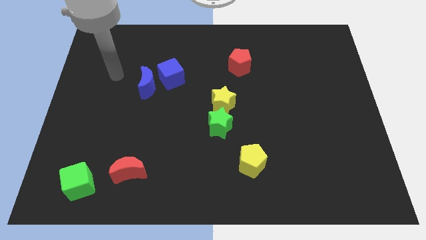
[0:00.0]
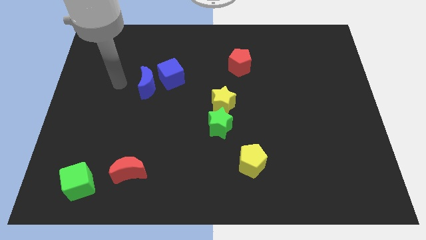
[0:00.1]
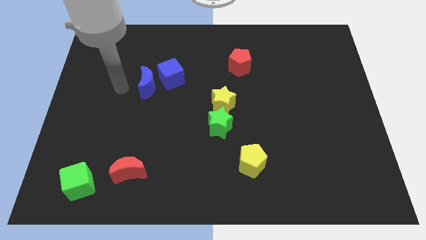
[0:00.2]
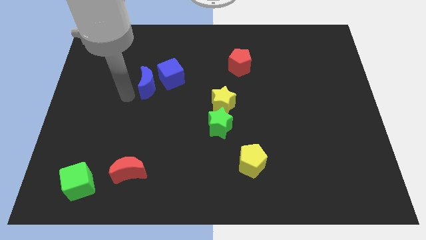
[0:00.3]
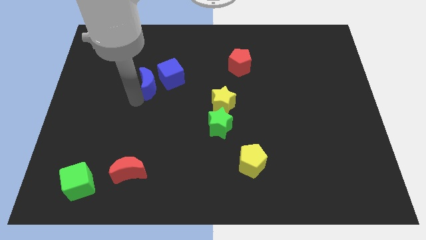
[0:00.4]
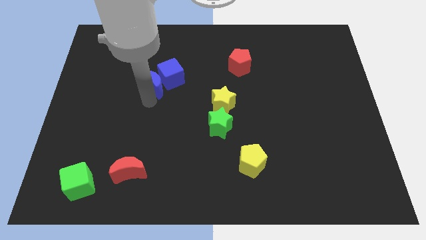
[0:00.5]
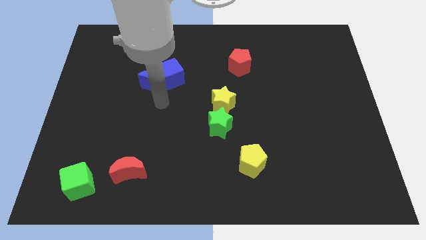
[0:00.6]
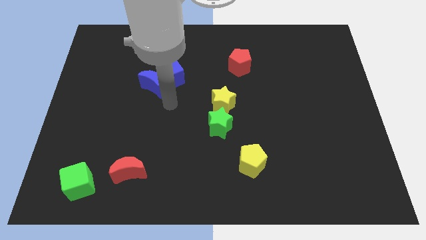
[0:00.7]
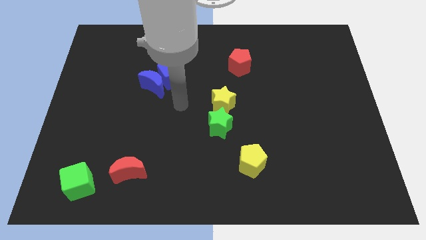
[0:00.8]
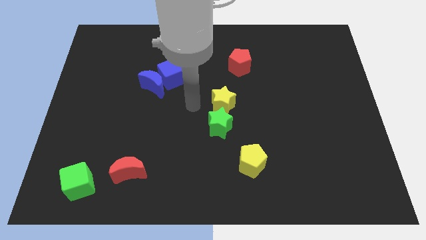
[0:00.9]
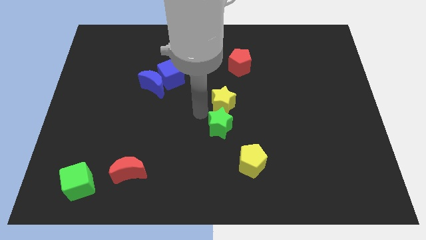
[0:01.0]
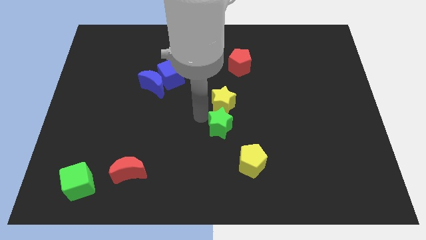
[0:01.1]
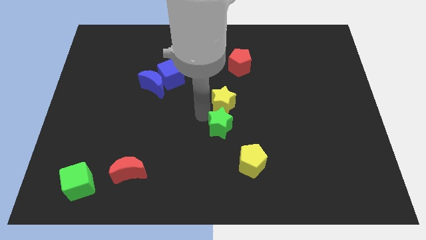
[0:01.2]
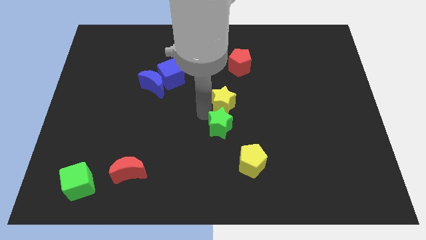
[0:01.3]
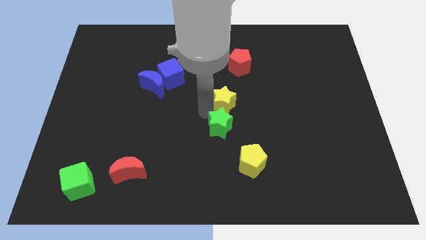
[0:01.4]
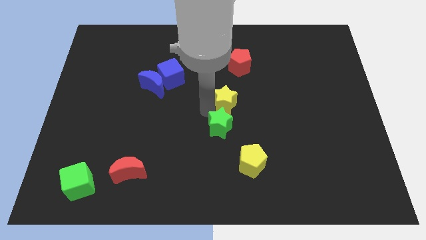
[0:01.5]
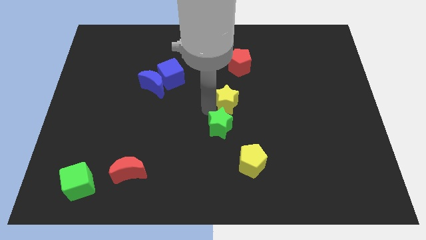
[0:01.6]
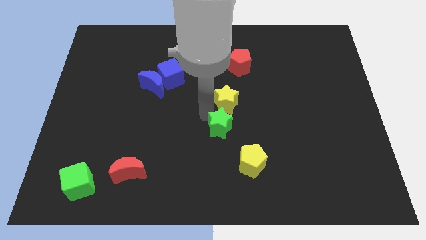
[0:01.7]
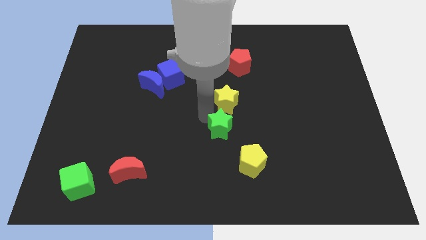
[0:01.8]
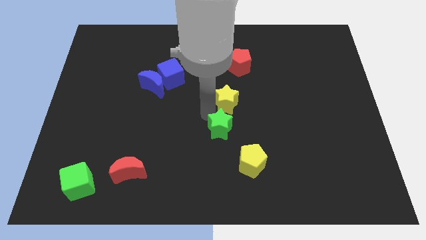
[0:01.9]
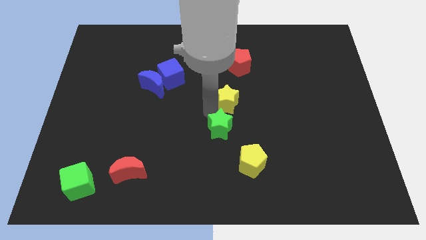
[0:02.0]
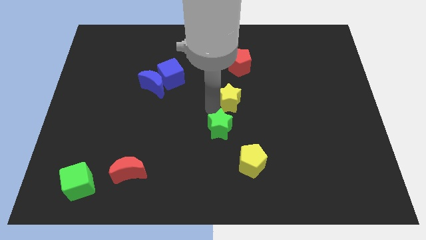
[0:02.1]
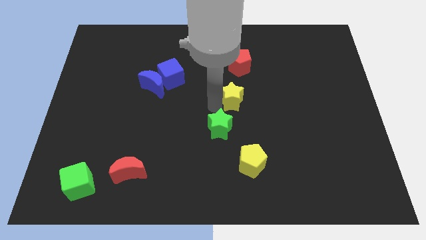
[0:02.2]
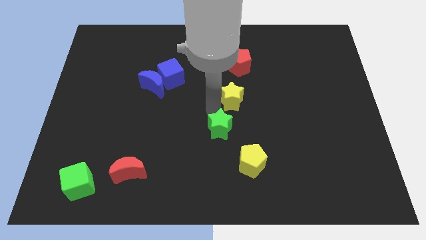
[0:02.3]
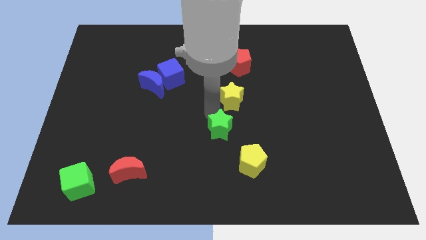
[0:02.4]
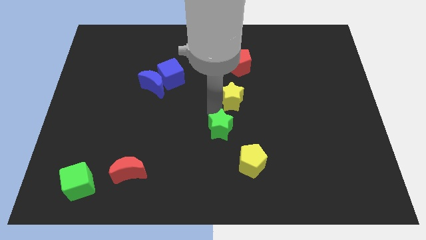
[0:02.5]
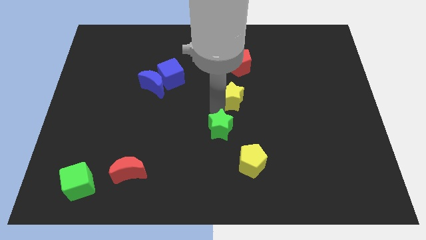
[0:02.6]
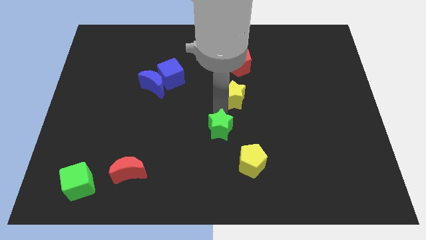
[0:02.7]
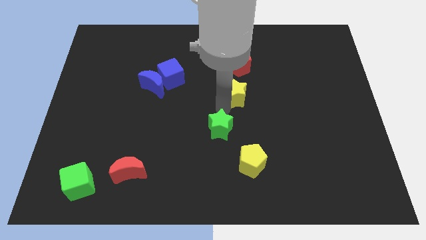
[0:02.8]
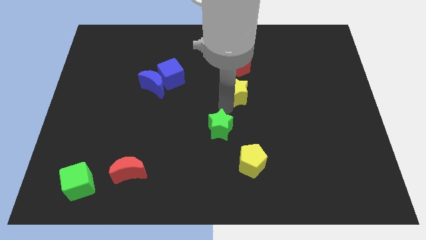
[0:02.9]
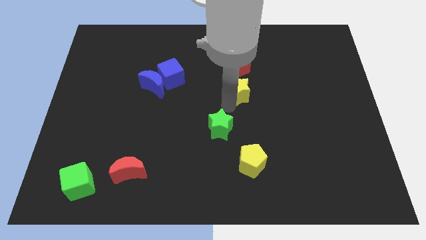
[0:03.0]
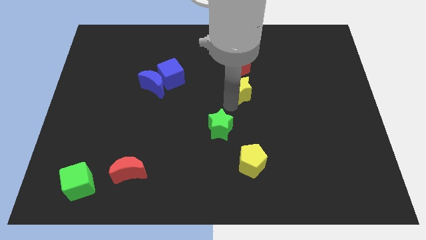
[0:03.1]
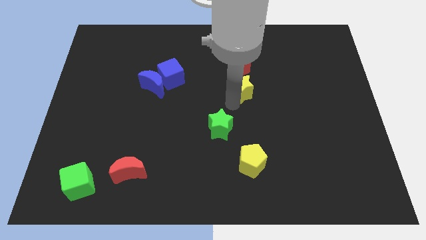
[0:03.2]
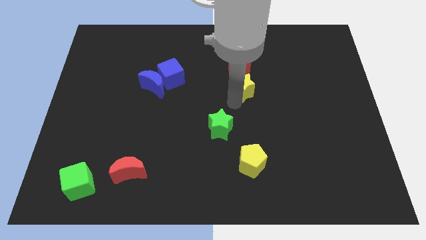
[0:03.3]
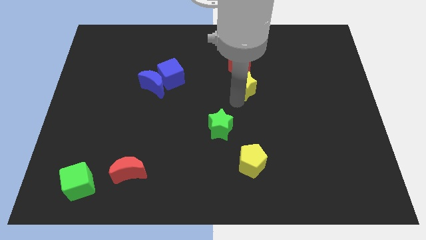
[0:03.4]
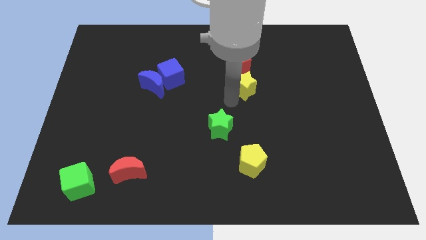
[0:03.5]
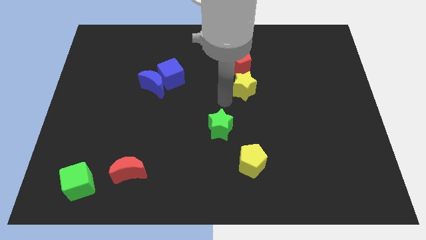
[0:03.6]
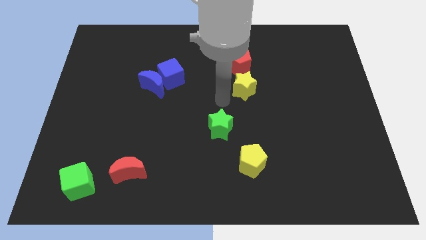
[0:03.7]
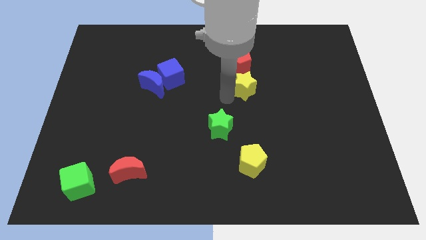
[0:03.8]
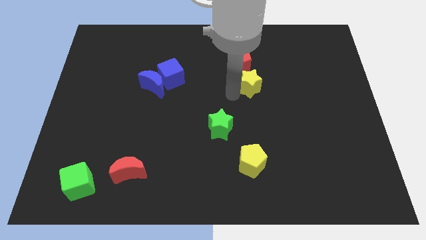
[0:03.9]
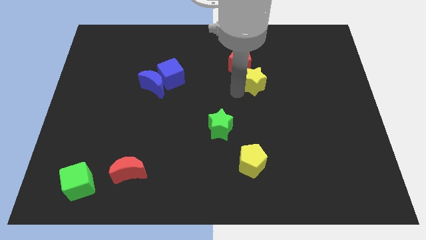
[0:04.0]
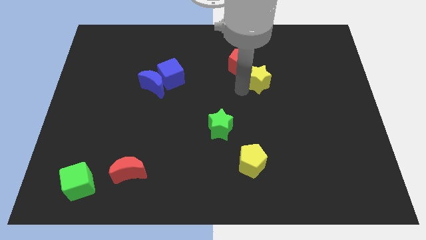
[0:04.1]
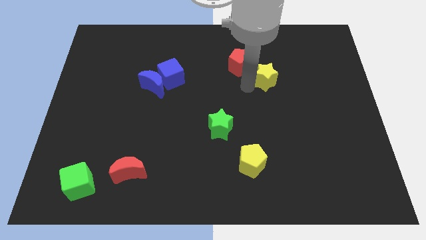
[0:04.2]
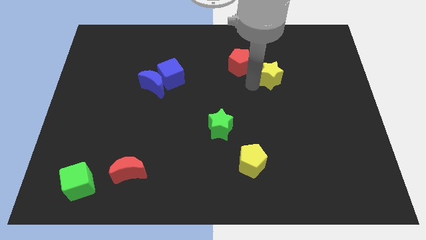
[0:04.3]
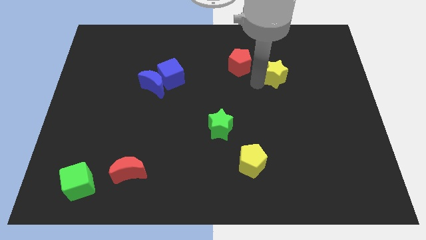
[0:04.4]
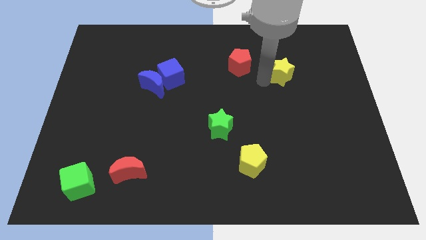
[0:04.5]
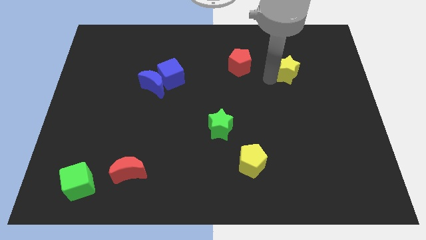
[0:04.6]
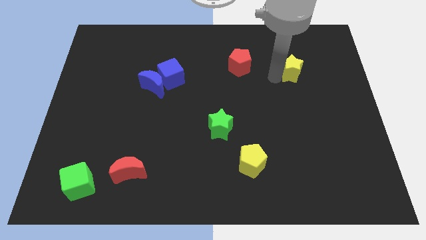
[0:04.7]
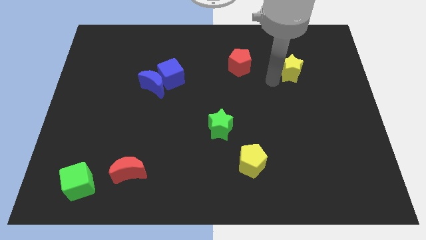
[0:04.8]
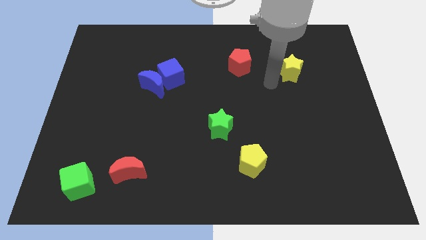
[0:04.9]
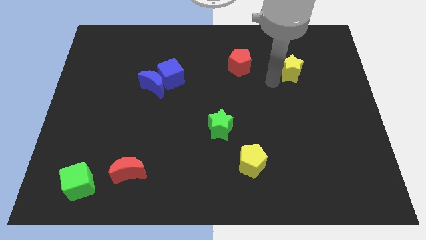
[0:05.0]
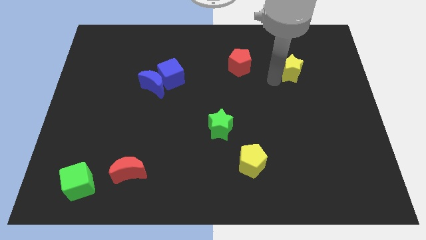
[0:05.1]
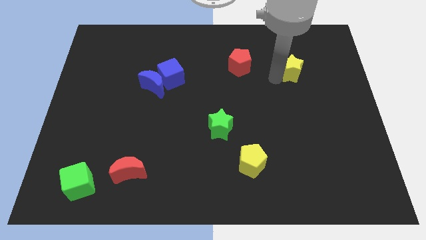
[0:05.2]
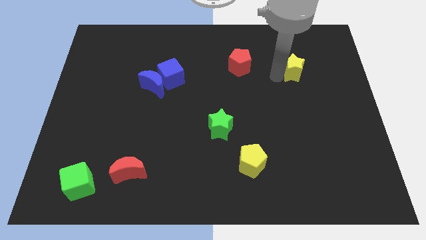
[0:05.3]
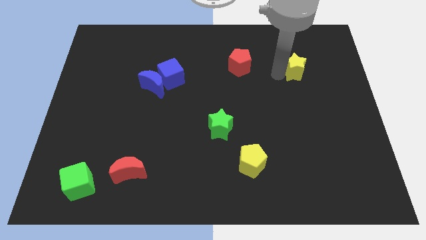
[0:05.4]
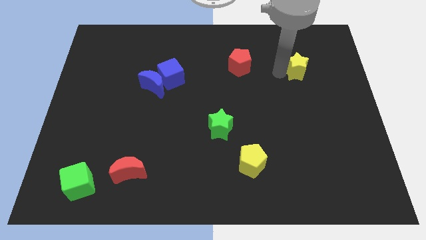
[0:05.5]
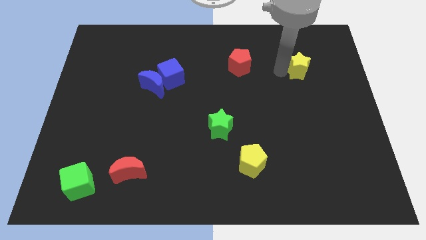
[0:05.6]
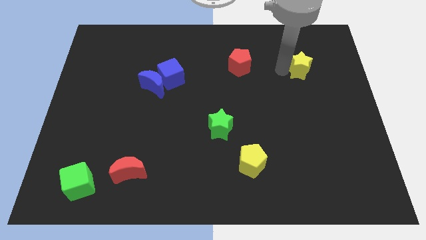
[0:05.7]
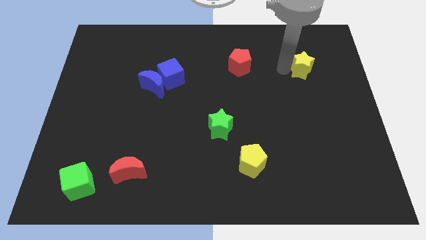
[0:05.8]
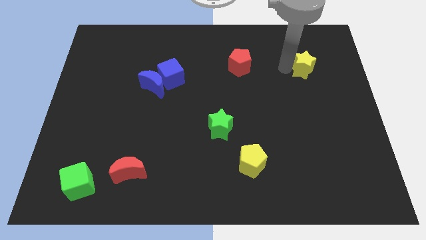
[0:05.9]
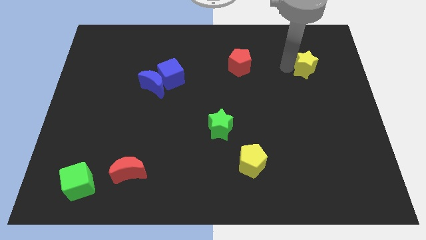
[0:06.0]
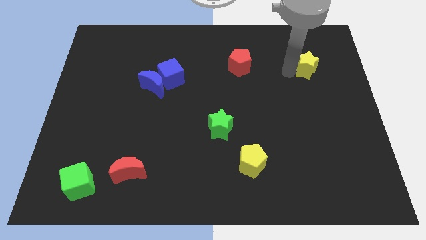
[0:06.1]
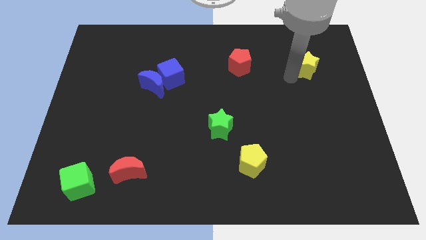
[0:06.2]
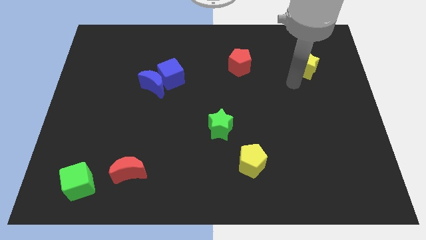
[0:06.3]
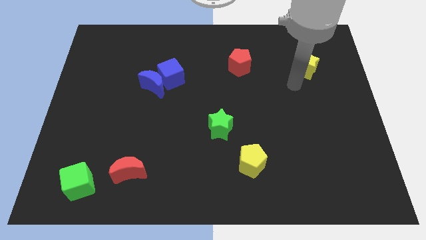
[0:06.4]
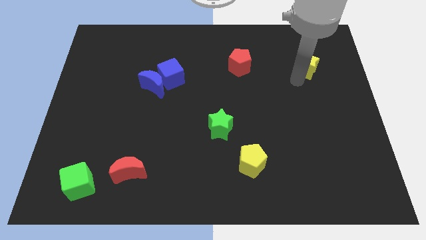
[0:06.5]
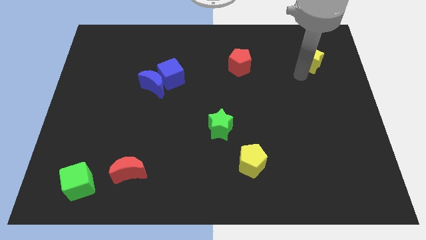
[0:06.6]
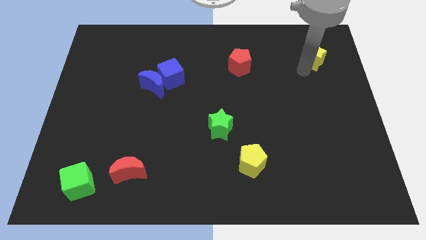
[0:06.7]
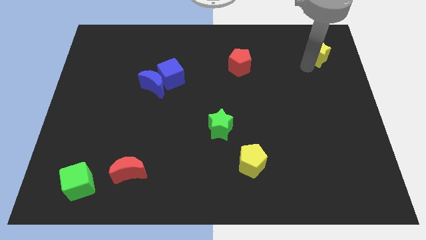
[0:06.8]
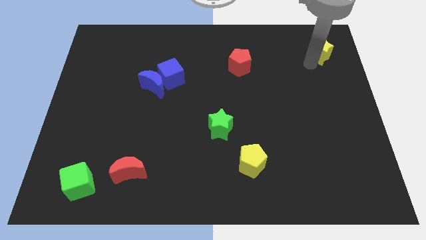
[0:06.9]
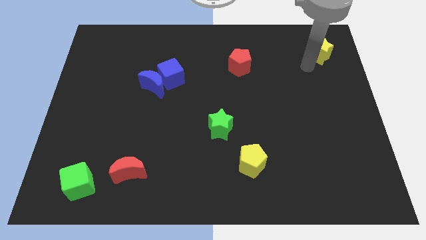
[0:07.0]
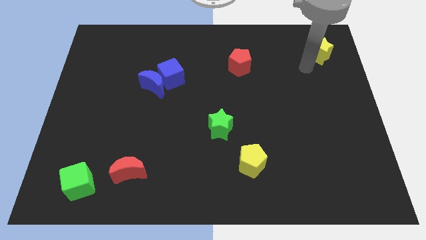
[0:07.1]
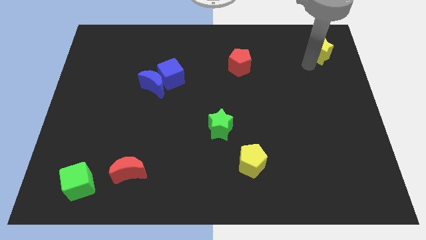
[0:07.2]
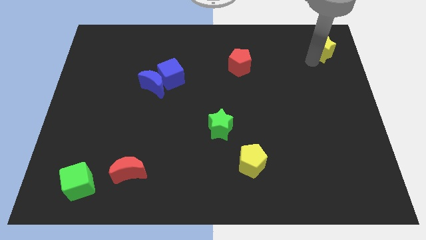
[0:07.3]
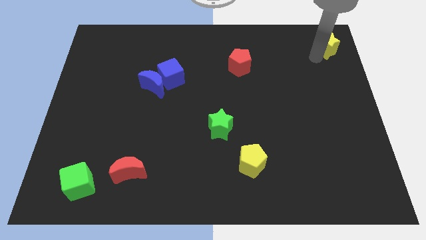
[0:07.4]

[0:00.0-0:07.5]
push the yellow star to the top right
